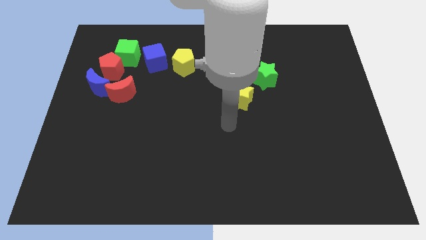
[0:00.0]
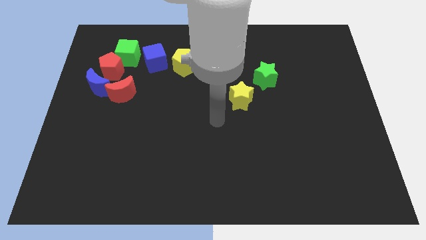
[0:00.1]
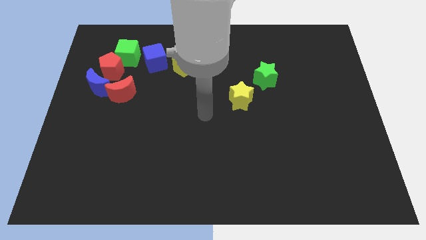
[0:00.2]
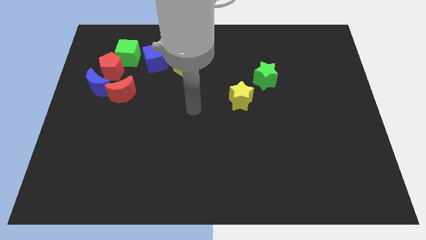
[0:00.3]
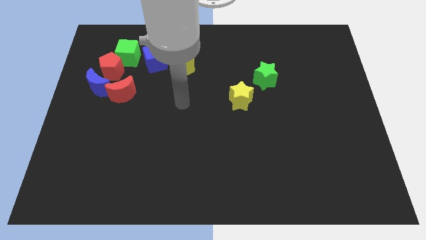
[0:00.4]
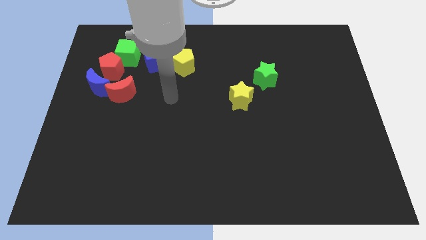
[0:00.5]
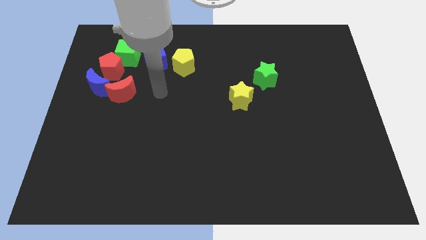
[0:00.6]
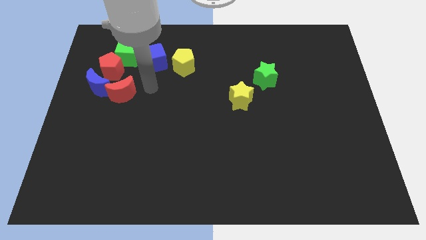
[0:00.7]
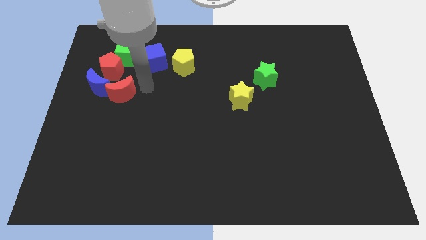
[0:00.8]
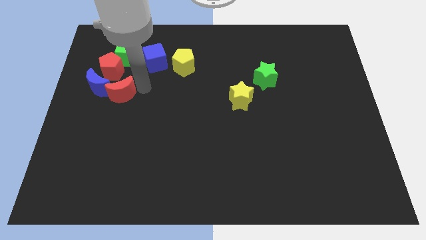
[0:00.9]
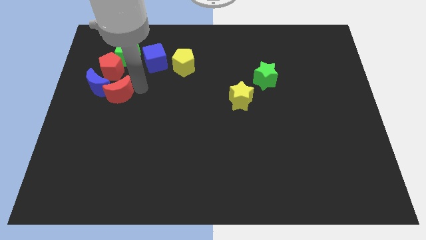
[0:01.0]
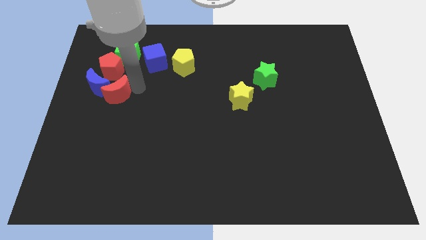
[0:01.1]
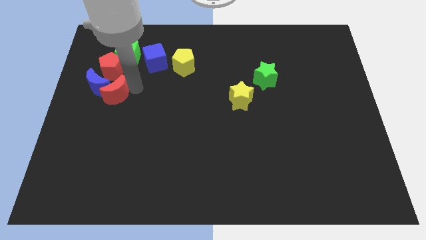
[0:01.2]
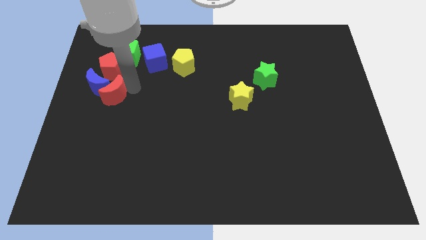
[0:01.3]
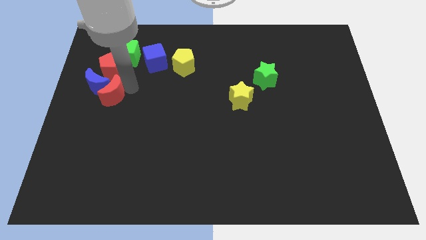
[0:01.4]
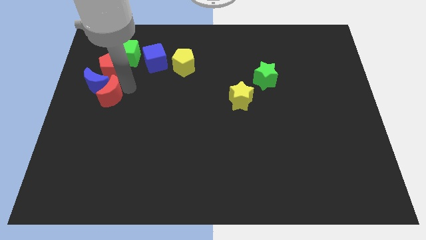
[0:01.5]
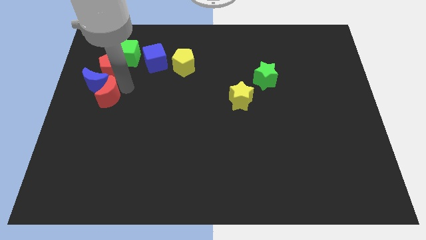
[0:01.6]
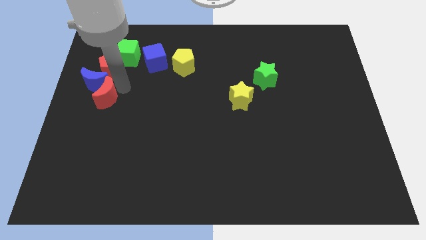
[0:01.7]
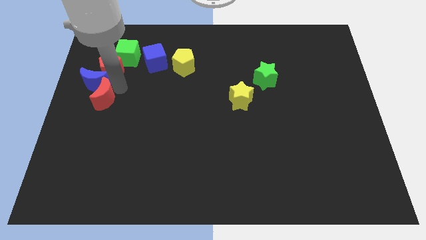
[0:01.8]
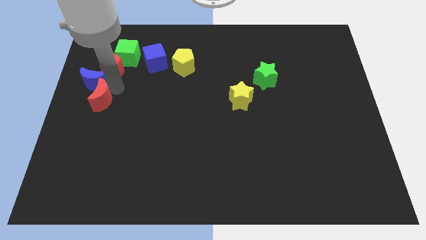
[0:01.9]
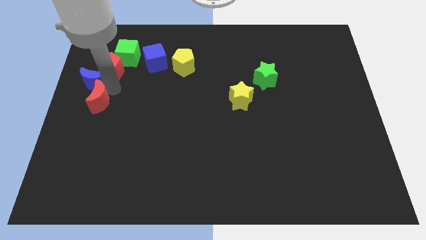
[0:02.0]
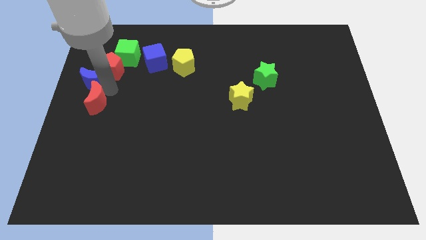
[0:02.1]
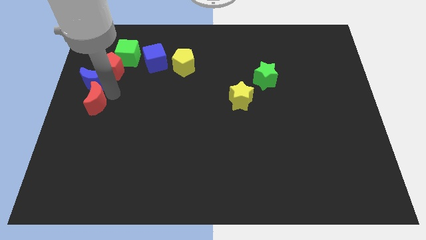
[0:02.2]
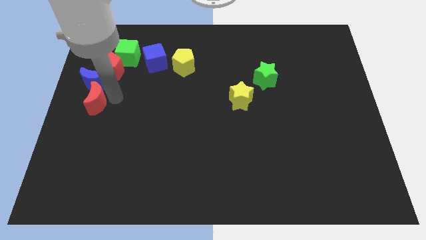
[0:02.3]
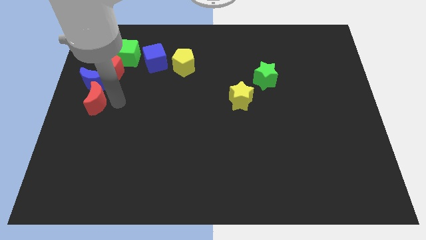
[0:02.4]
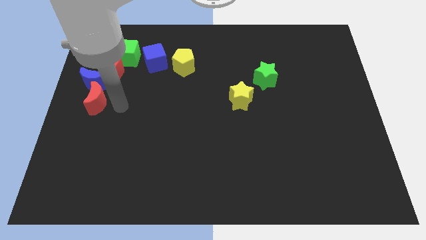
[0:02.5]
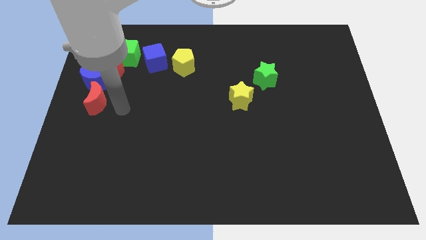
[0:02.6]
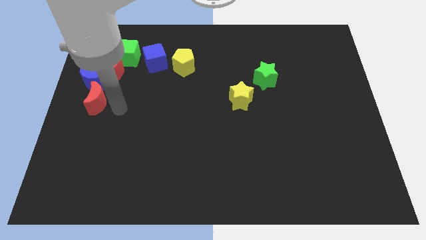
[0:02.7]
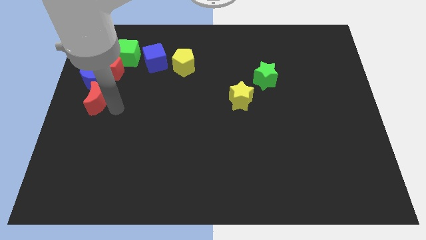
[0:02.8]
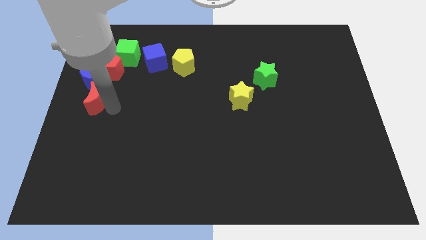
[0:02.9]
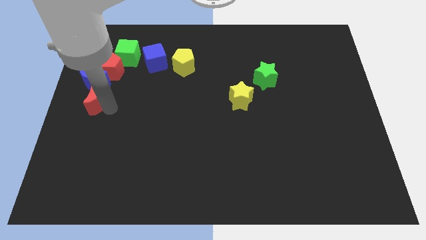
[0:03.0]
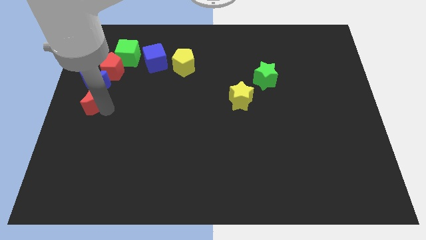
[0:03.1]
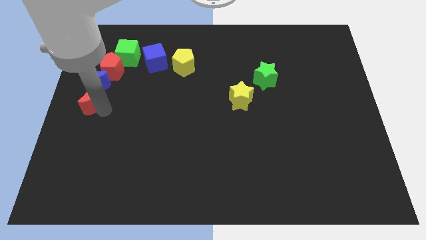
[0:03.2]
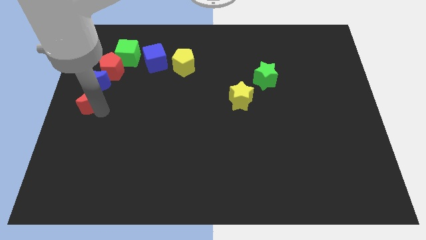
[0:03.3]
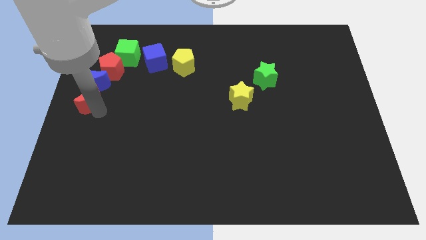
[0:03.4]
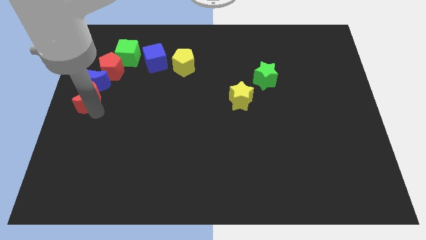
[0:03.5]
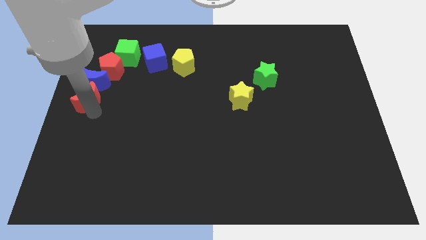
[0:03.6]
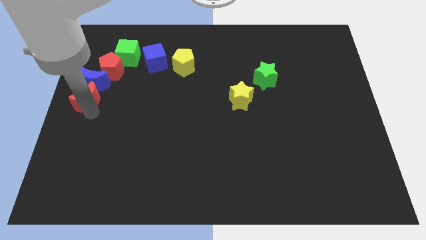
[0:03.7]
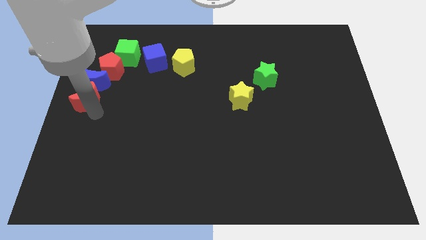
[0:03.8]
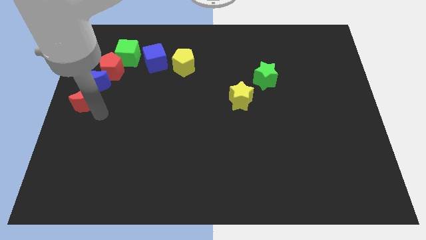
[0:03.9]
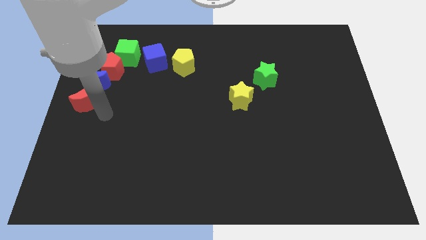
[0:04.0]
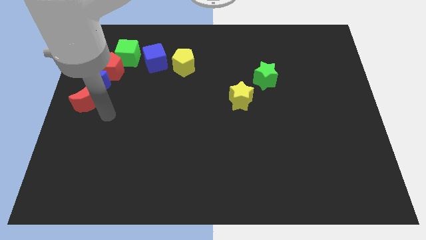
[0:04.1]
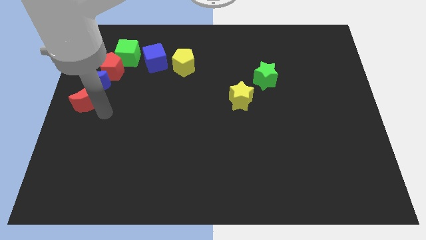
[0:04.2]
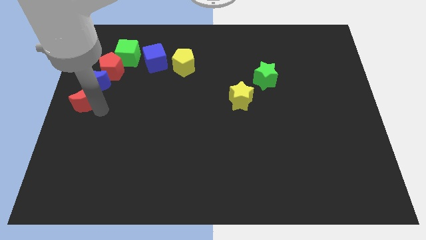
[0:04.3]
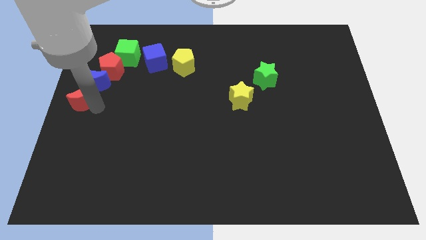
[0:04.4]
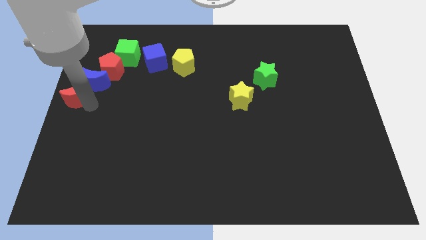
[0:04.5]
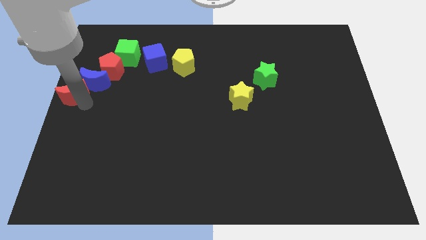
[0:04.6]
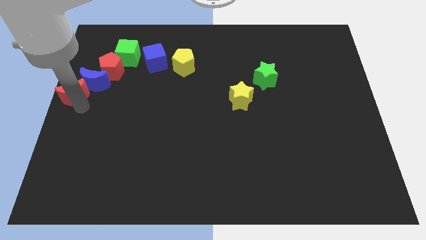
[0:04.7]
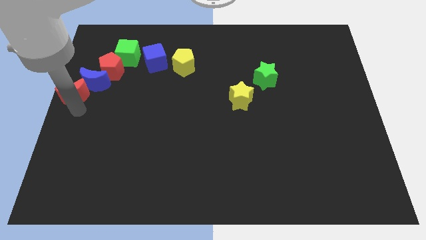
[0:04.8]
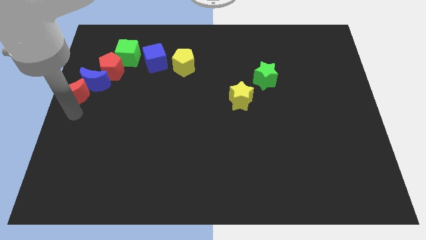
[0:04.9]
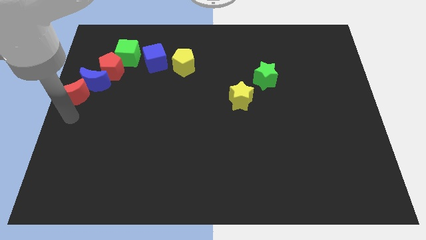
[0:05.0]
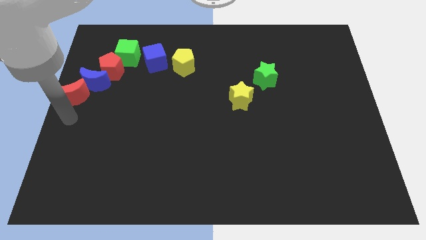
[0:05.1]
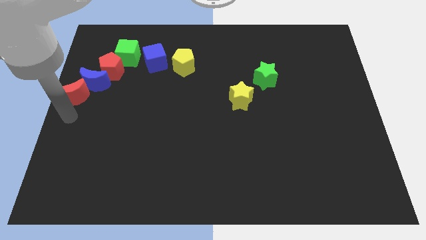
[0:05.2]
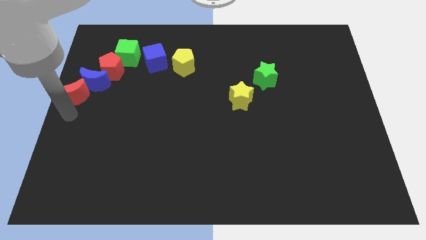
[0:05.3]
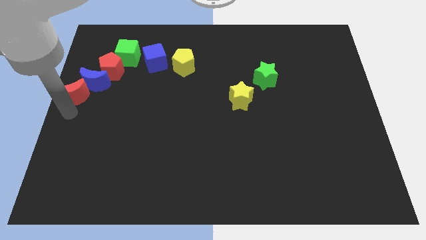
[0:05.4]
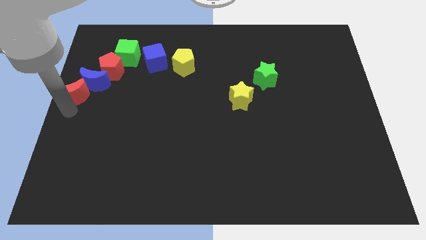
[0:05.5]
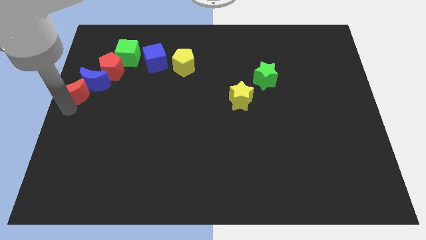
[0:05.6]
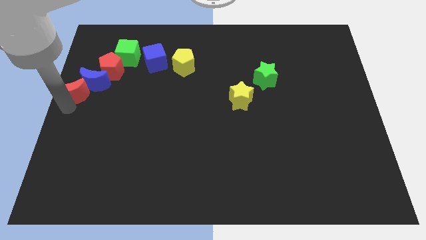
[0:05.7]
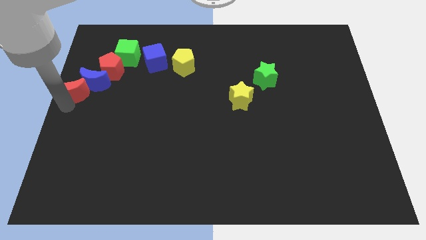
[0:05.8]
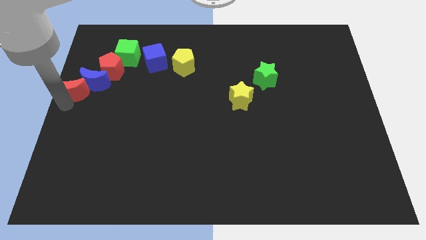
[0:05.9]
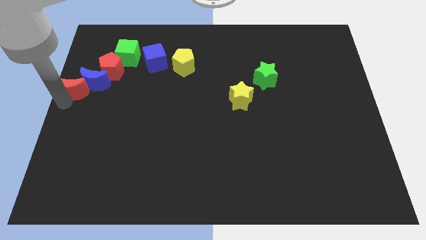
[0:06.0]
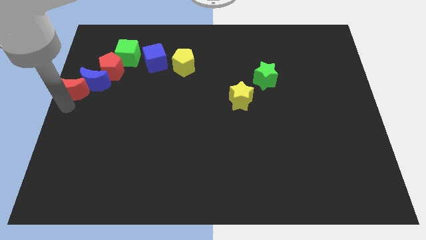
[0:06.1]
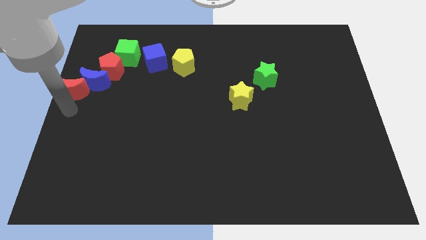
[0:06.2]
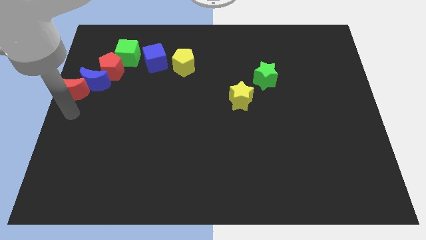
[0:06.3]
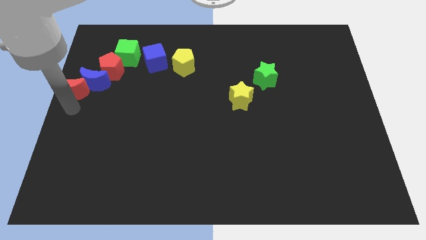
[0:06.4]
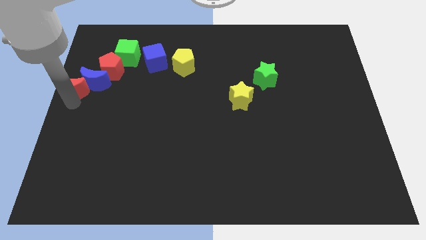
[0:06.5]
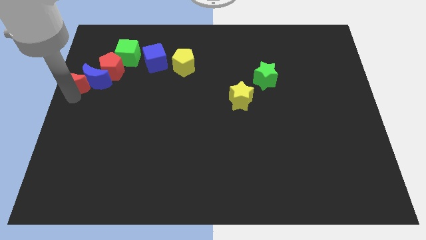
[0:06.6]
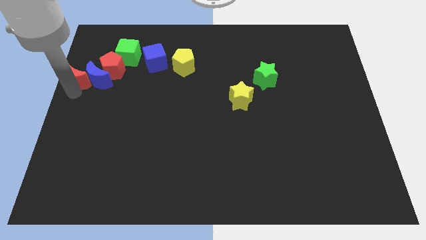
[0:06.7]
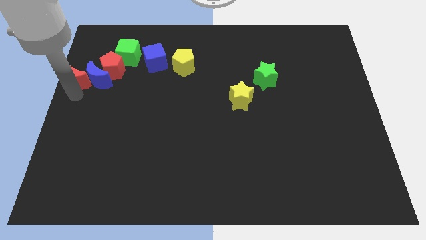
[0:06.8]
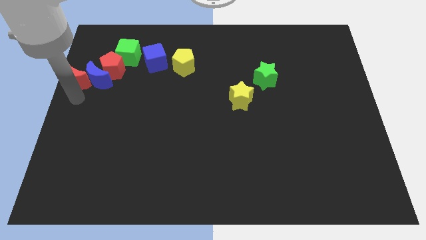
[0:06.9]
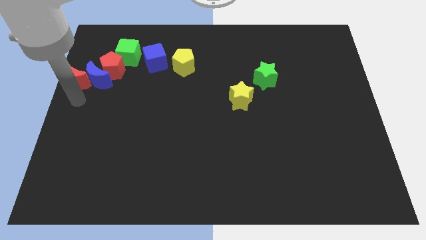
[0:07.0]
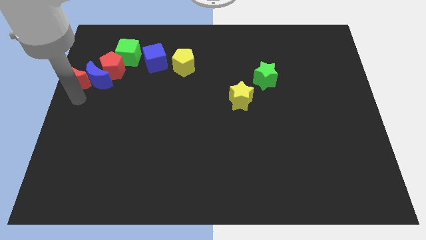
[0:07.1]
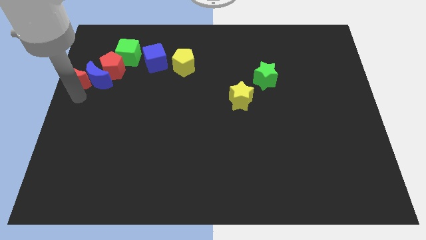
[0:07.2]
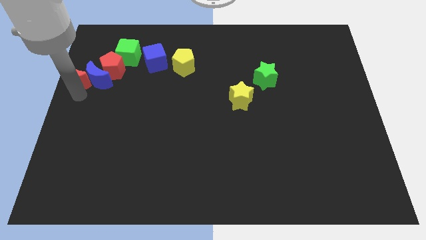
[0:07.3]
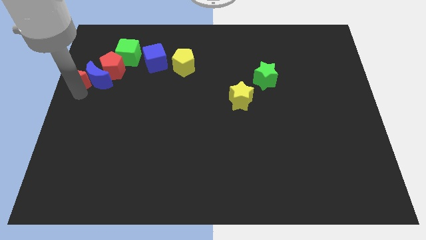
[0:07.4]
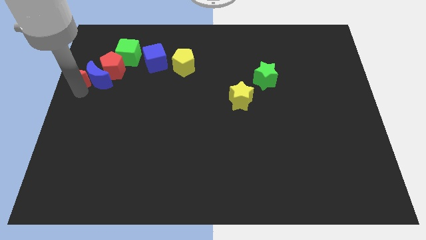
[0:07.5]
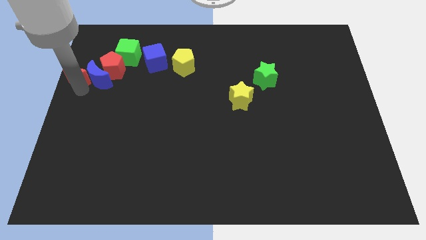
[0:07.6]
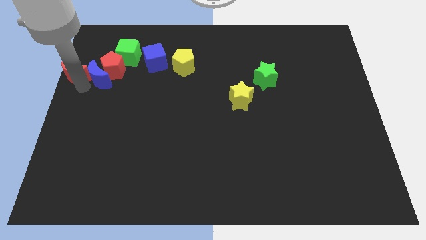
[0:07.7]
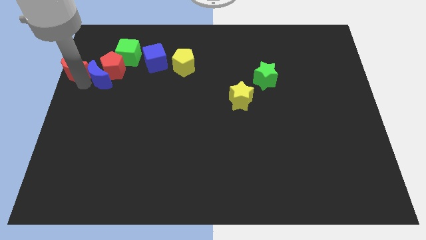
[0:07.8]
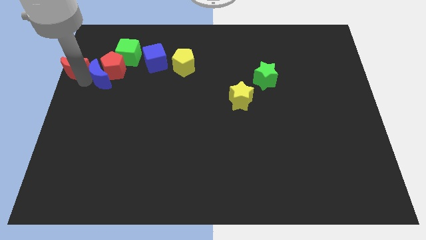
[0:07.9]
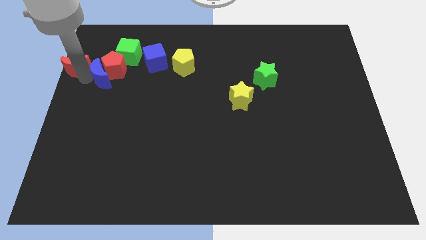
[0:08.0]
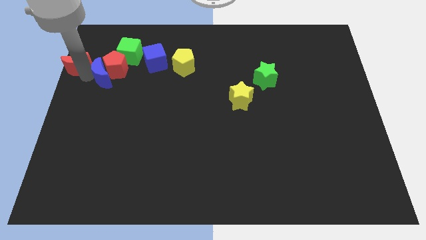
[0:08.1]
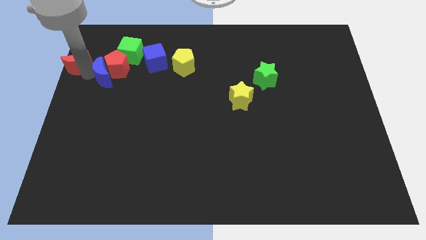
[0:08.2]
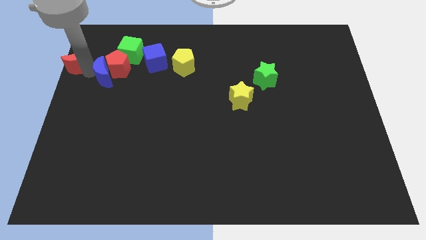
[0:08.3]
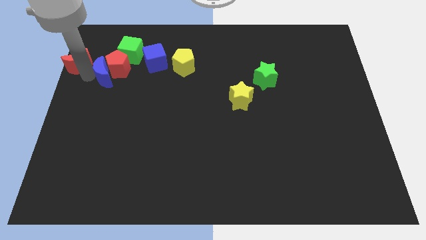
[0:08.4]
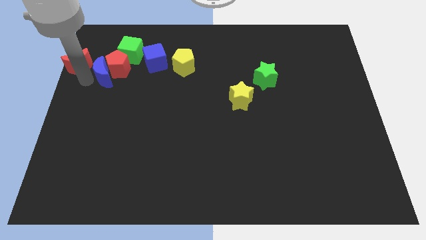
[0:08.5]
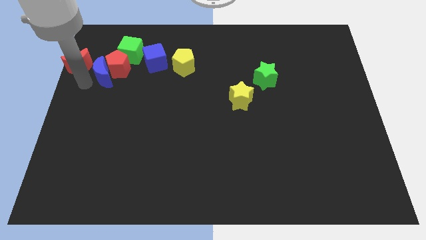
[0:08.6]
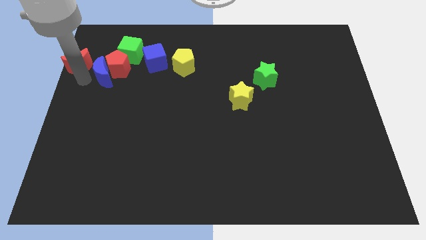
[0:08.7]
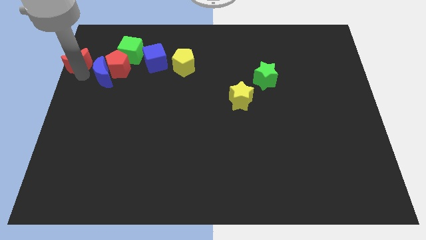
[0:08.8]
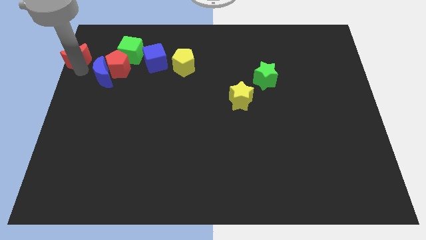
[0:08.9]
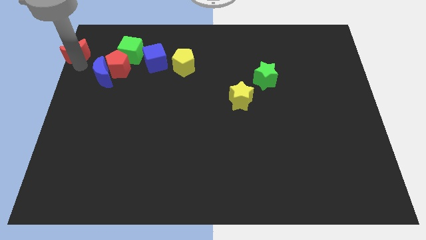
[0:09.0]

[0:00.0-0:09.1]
put the red moon to the upper left corner
